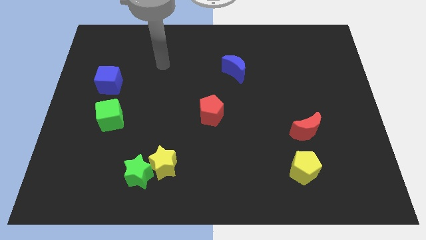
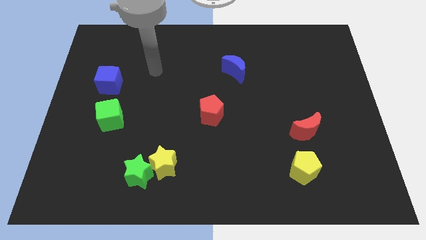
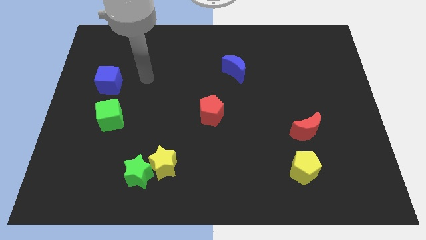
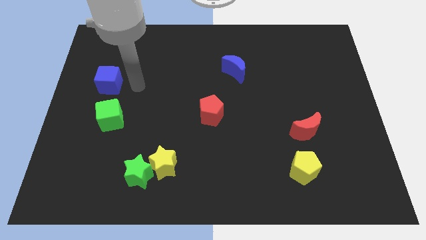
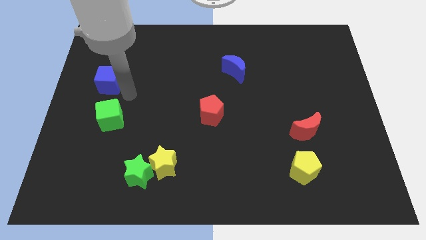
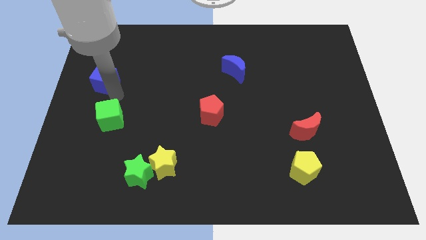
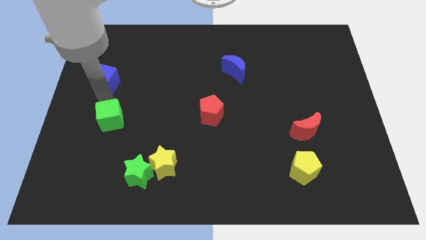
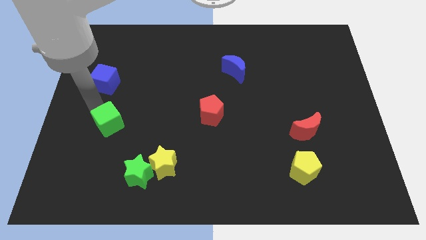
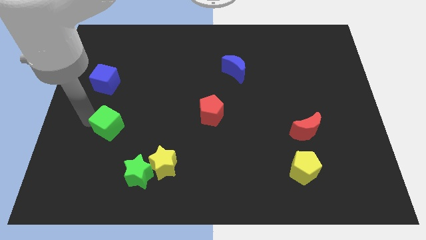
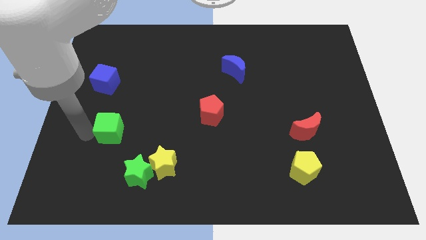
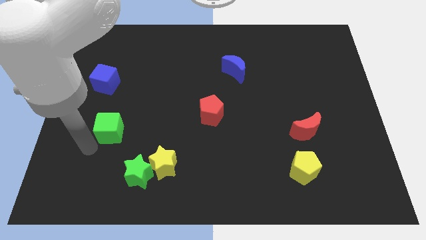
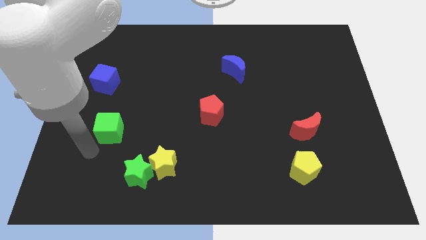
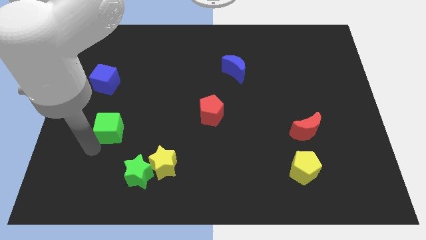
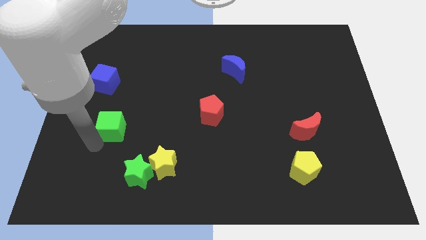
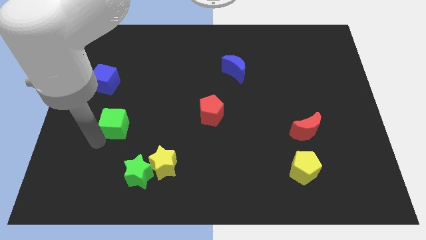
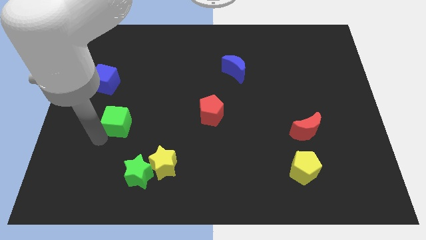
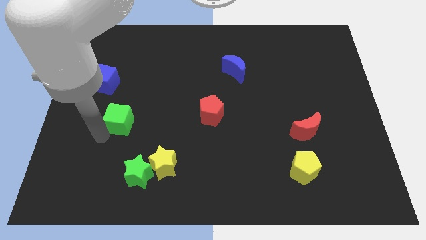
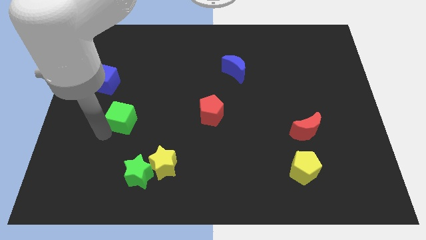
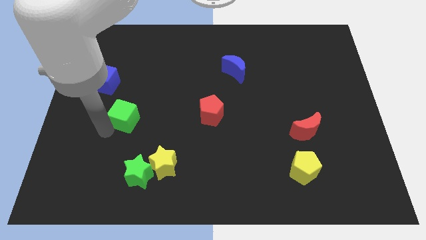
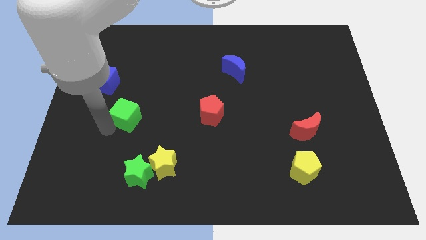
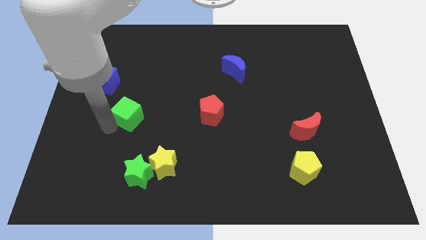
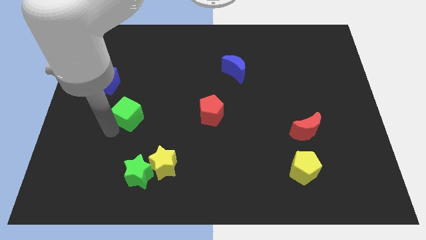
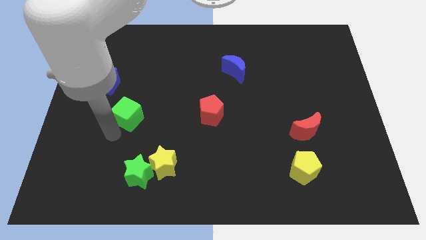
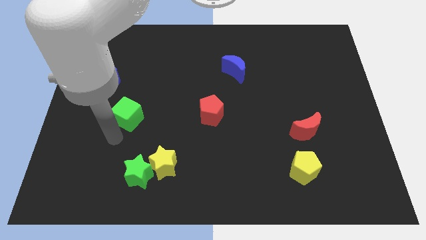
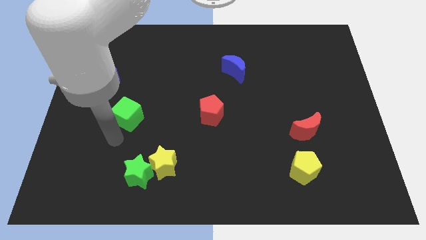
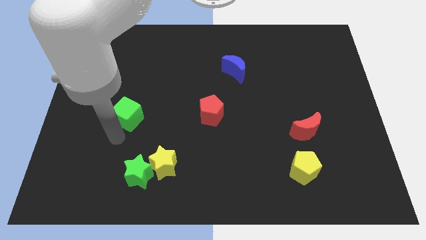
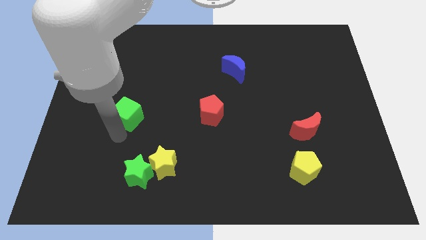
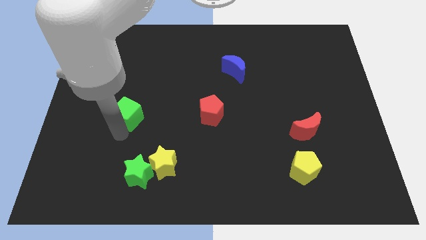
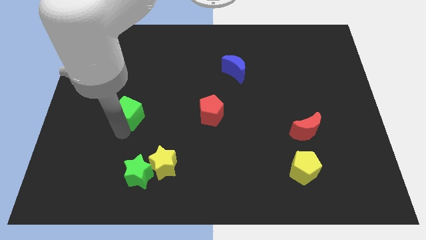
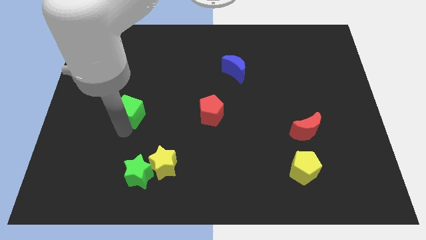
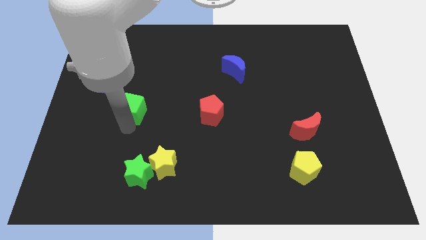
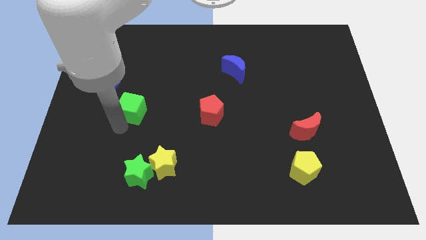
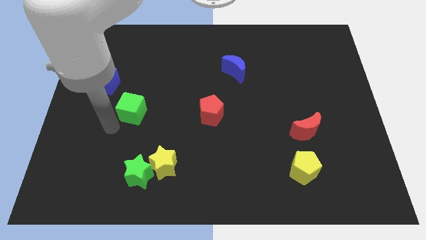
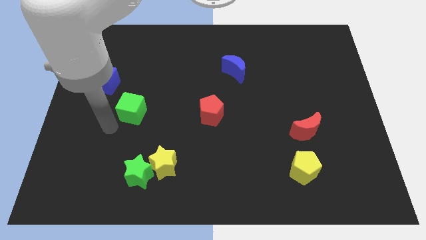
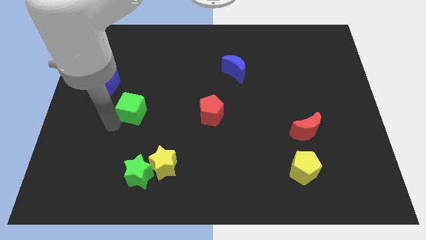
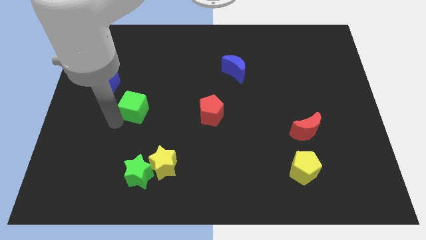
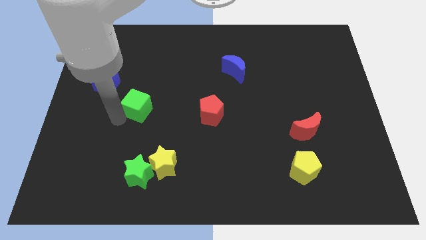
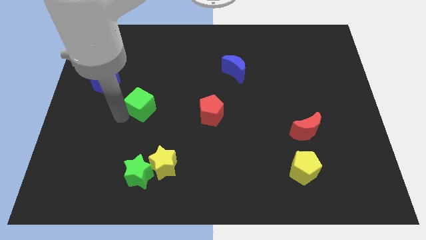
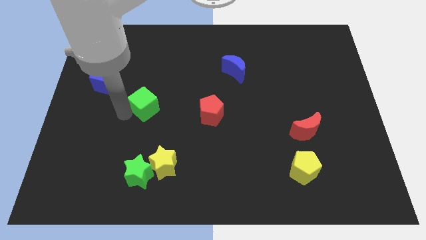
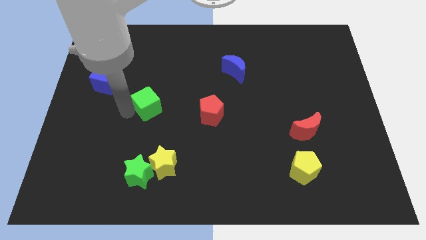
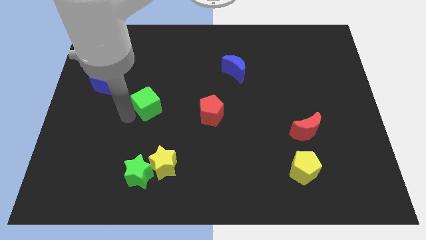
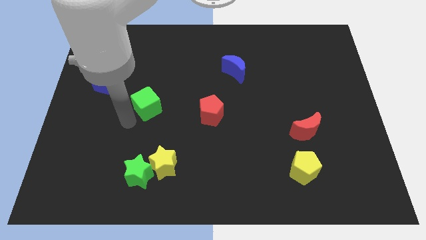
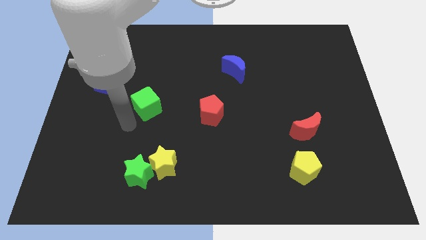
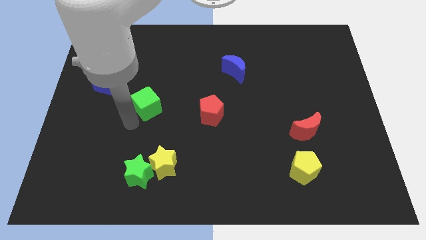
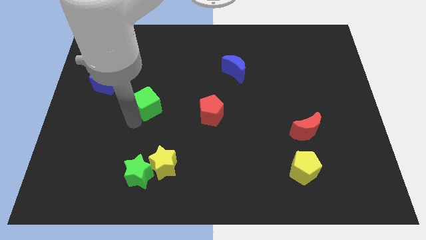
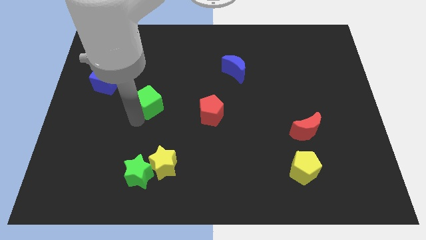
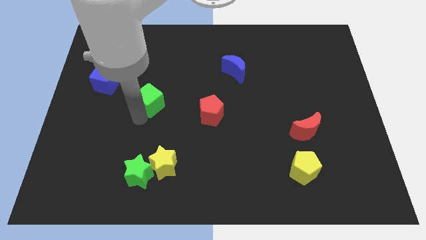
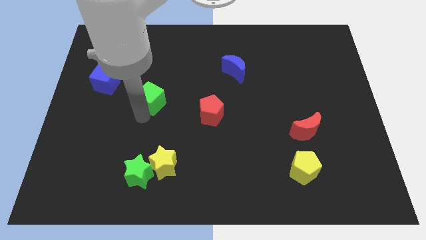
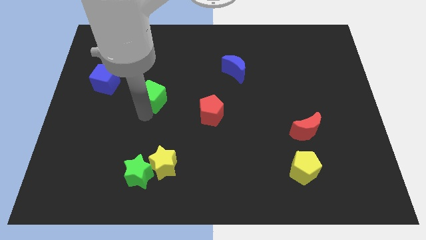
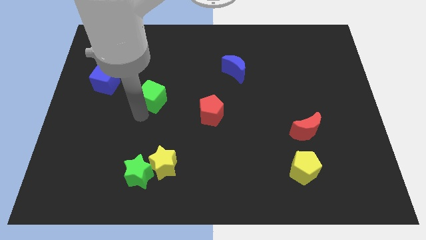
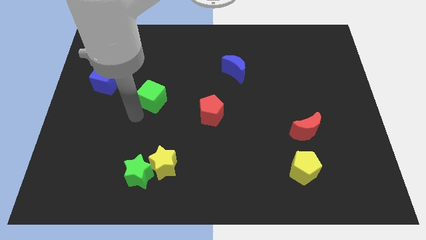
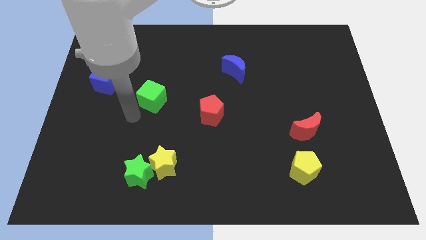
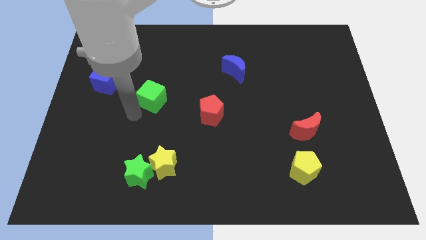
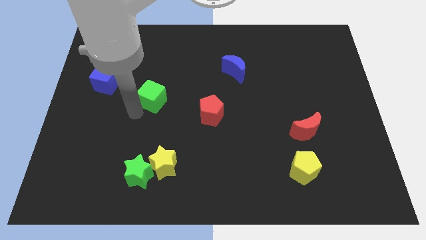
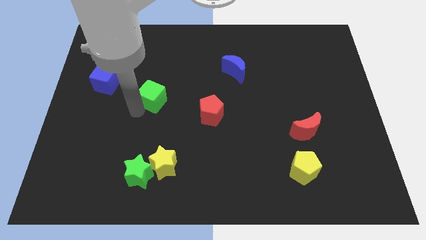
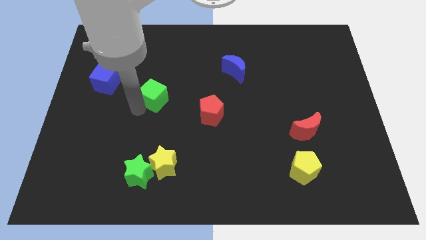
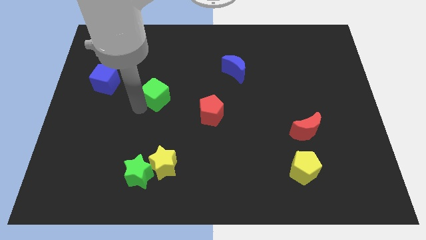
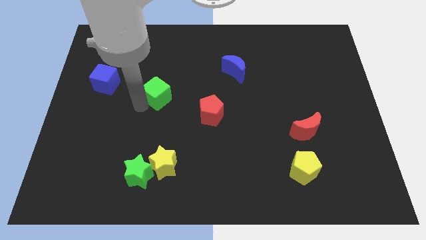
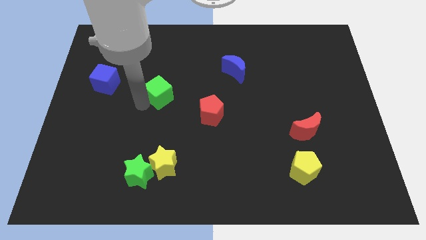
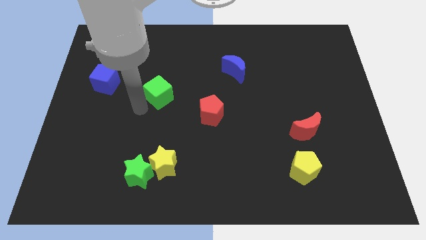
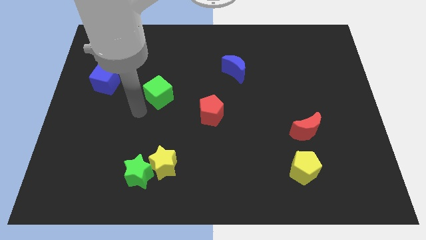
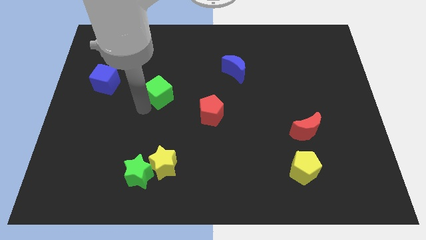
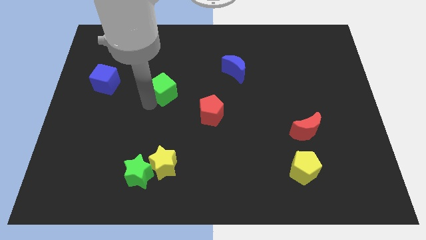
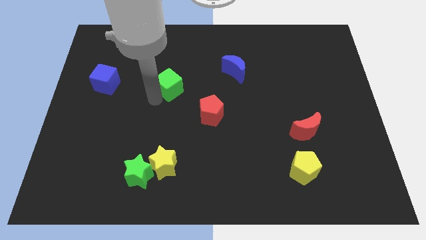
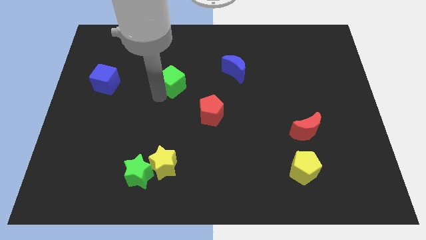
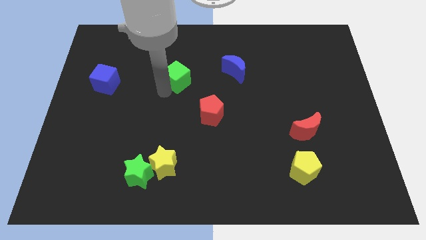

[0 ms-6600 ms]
move the green cube left of the blue moon
